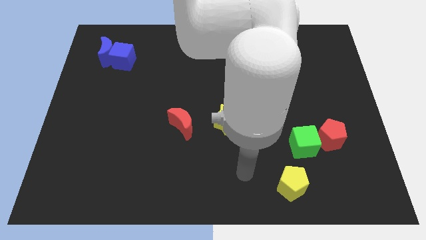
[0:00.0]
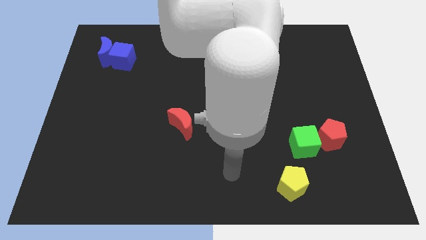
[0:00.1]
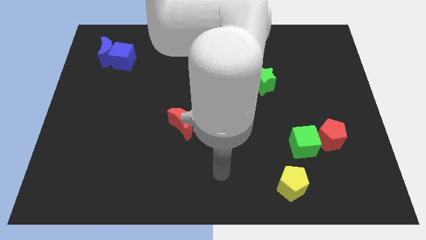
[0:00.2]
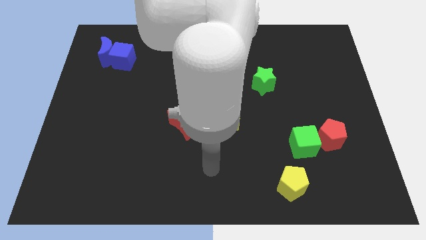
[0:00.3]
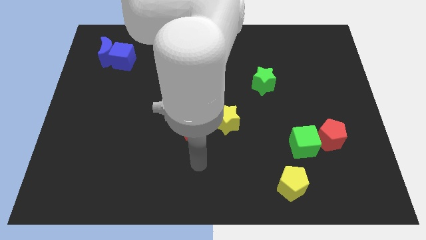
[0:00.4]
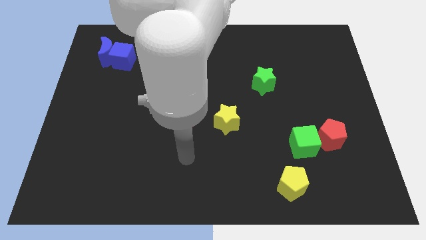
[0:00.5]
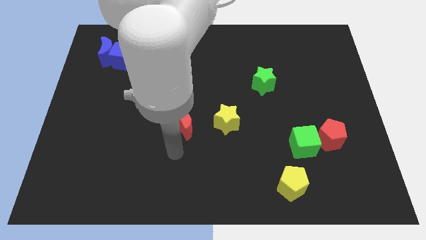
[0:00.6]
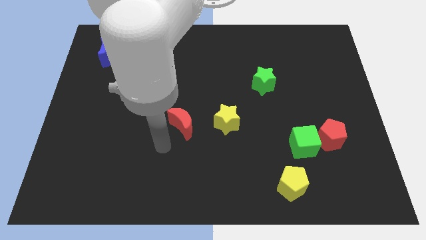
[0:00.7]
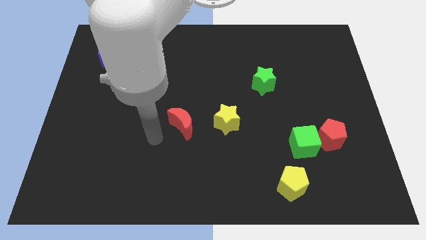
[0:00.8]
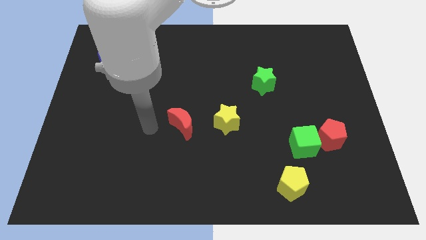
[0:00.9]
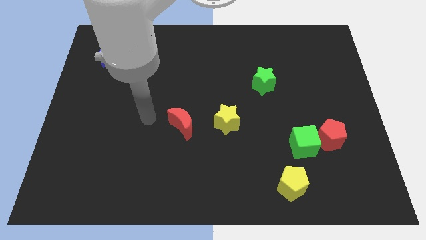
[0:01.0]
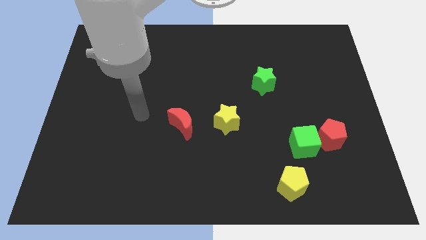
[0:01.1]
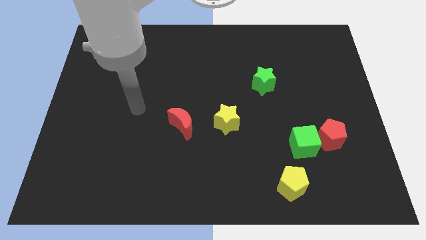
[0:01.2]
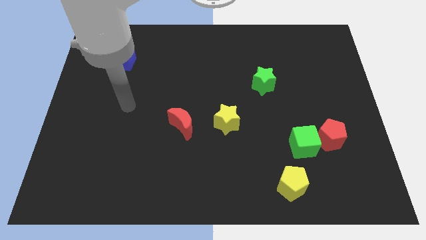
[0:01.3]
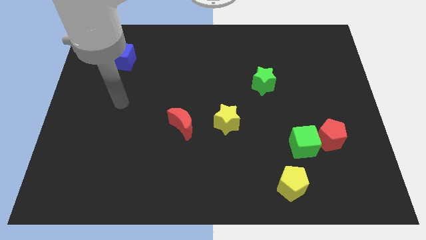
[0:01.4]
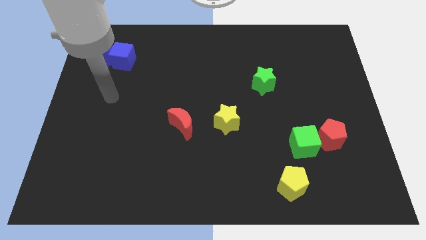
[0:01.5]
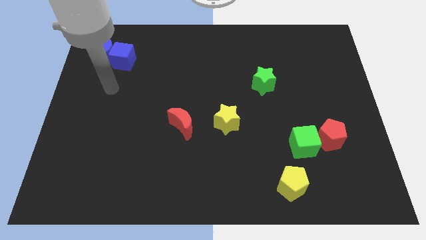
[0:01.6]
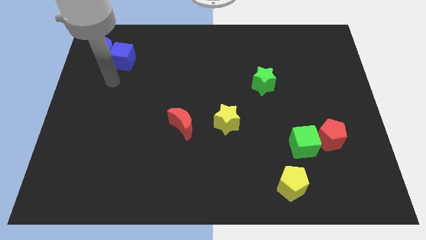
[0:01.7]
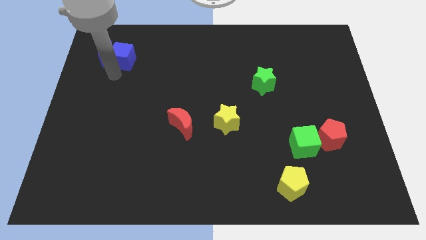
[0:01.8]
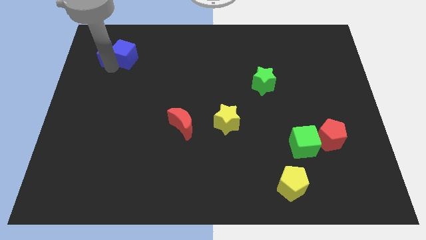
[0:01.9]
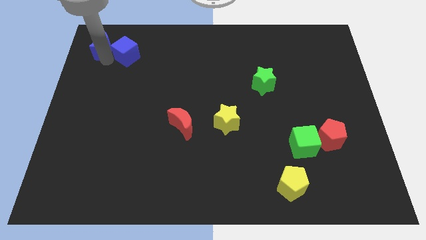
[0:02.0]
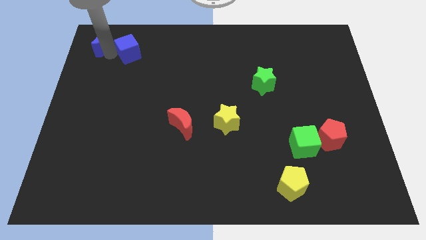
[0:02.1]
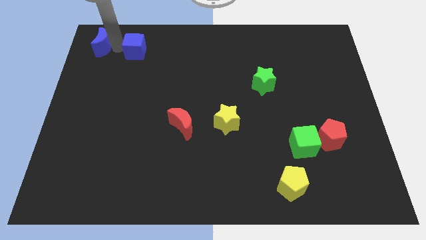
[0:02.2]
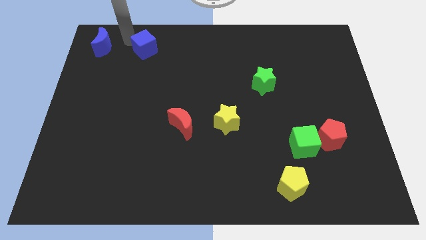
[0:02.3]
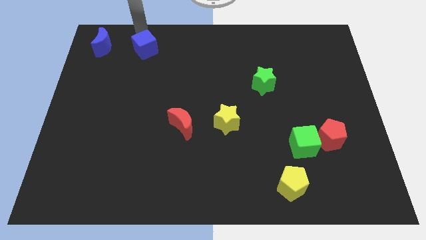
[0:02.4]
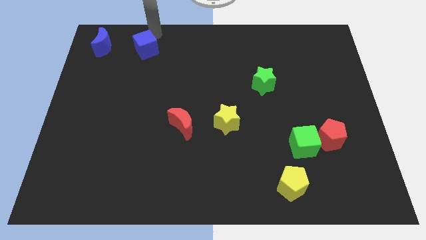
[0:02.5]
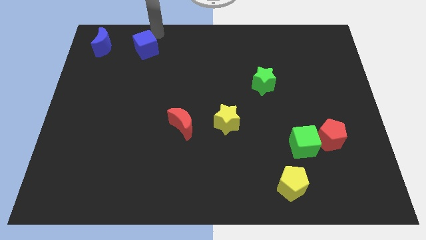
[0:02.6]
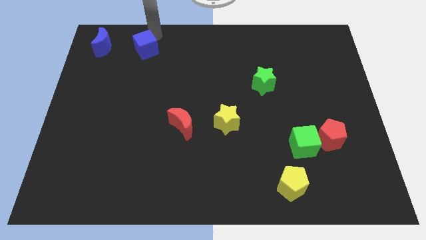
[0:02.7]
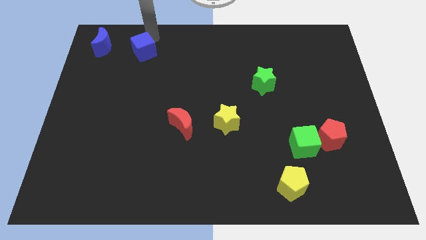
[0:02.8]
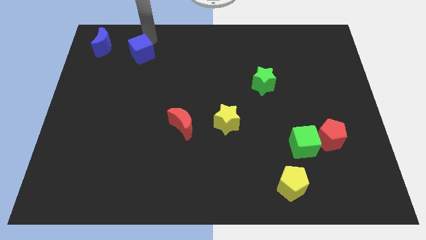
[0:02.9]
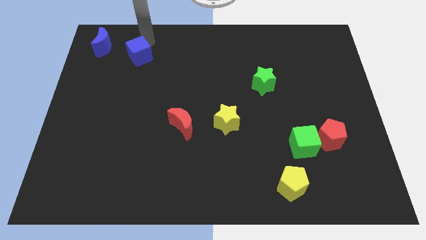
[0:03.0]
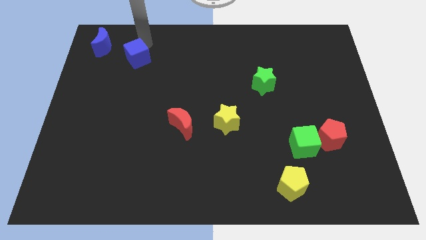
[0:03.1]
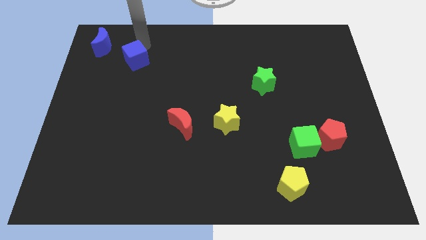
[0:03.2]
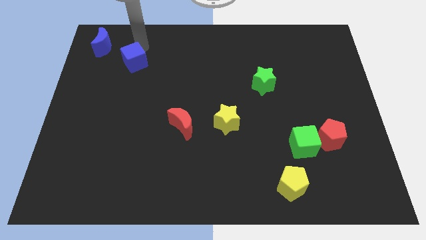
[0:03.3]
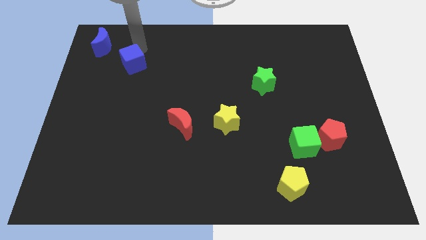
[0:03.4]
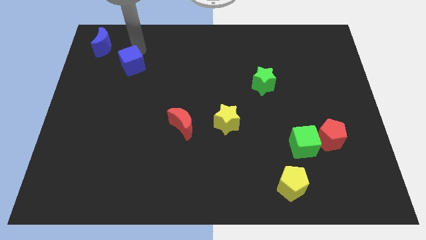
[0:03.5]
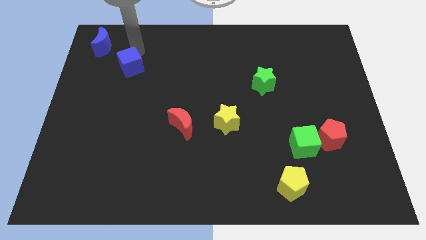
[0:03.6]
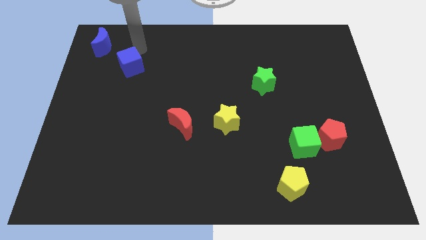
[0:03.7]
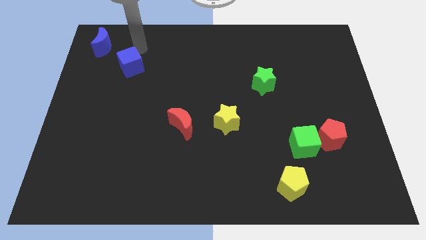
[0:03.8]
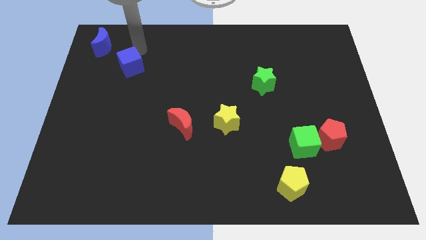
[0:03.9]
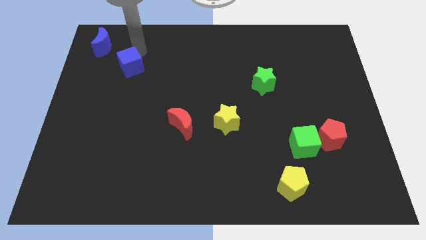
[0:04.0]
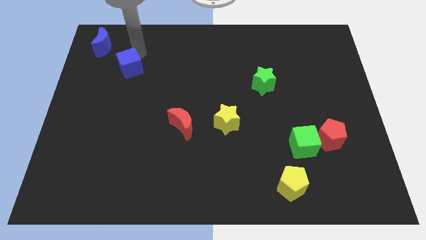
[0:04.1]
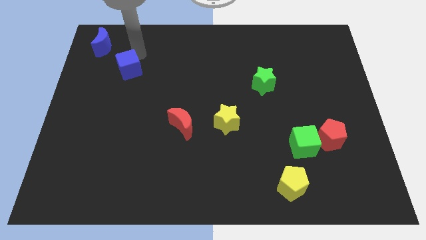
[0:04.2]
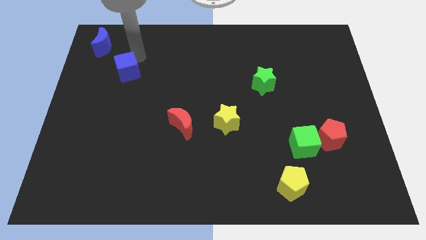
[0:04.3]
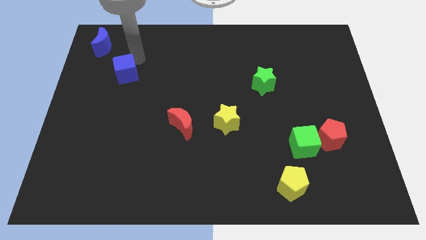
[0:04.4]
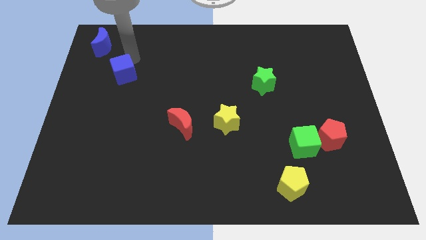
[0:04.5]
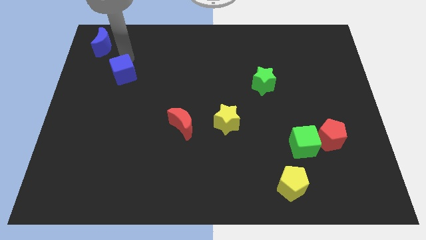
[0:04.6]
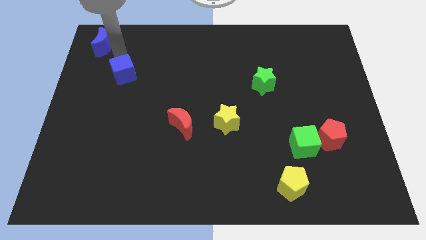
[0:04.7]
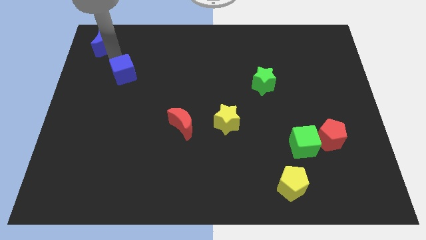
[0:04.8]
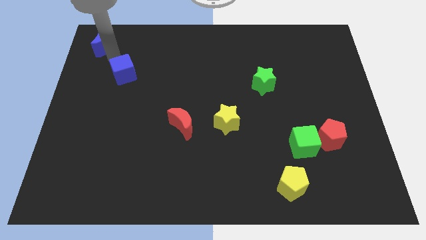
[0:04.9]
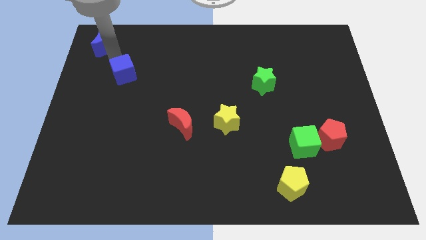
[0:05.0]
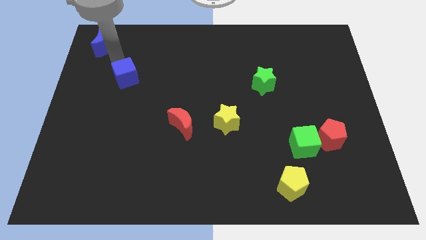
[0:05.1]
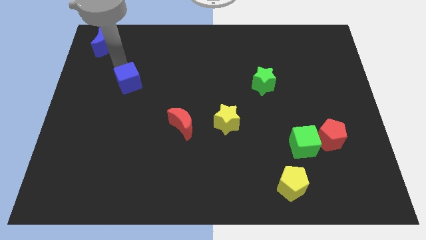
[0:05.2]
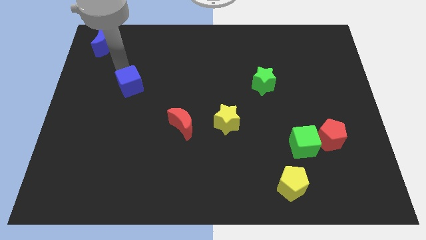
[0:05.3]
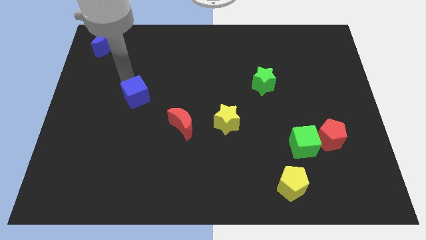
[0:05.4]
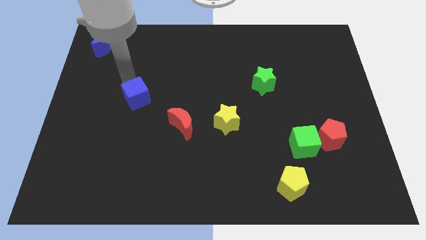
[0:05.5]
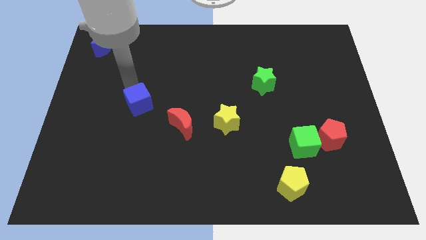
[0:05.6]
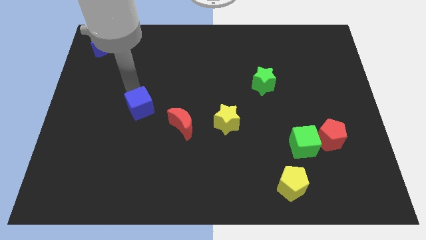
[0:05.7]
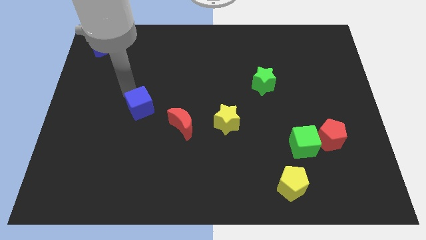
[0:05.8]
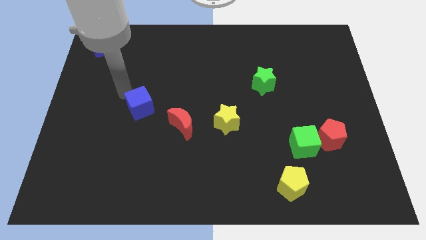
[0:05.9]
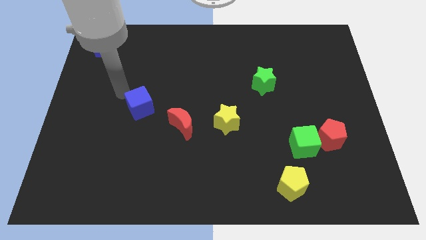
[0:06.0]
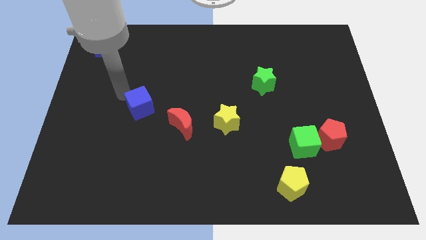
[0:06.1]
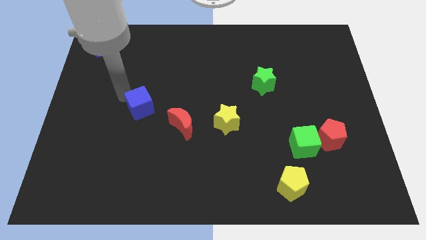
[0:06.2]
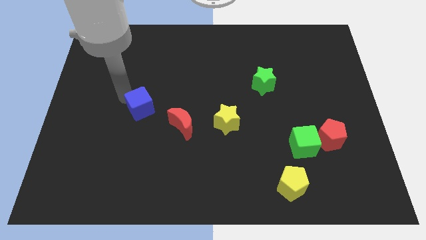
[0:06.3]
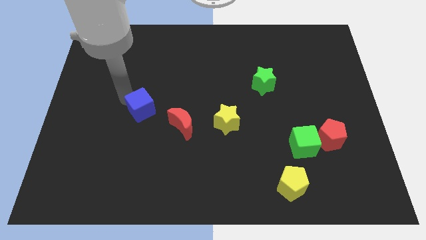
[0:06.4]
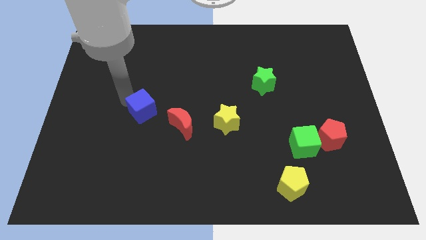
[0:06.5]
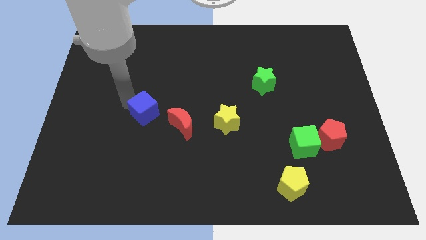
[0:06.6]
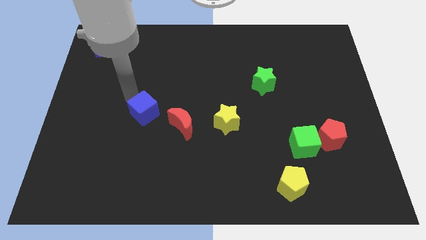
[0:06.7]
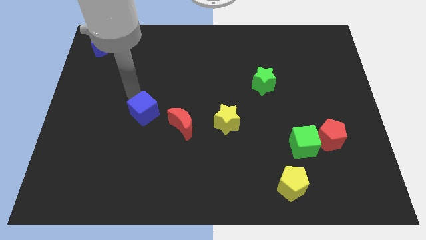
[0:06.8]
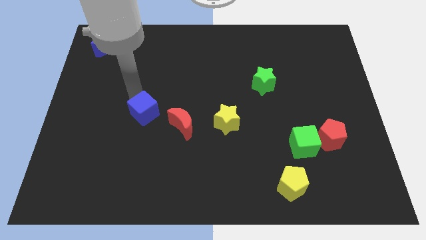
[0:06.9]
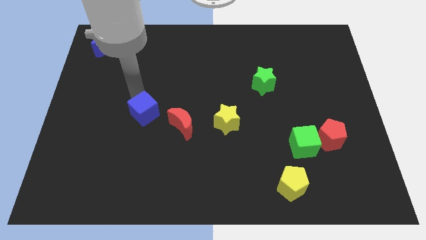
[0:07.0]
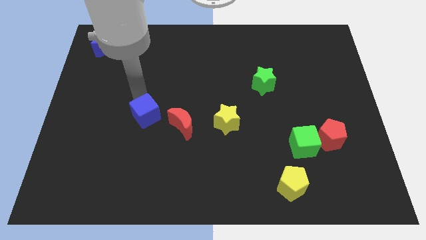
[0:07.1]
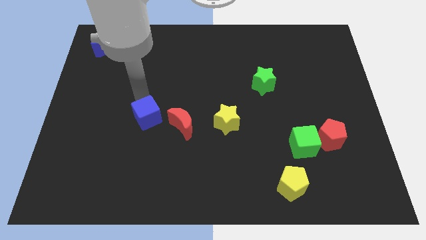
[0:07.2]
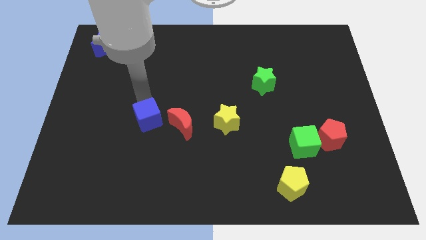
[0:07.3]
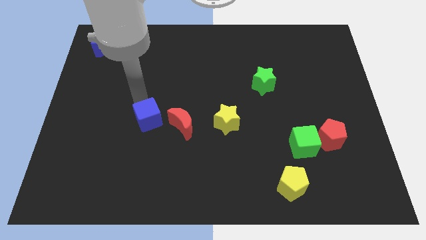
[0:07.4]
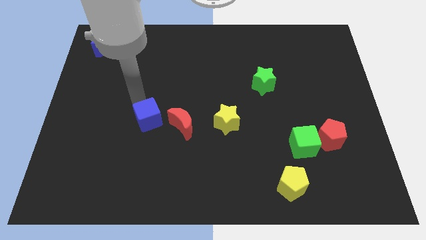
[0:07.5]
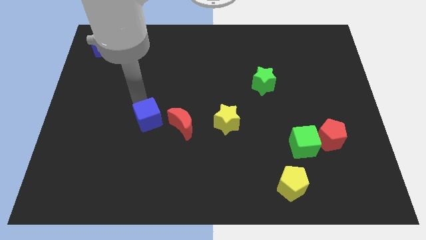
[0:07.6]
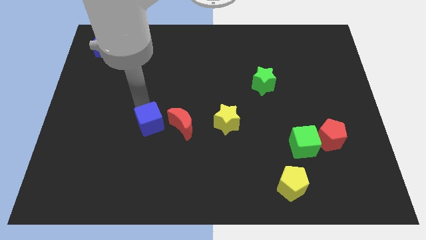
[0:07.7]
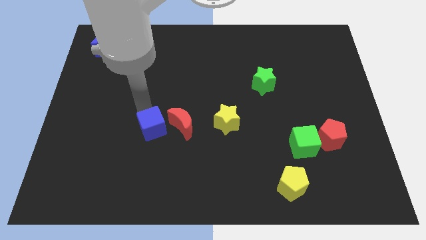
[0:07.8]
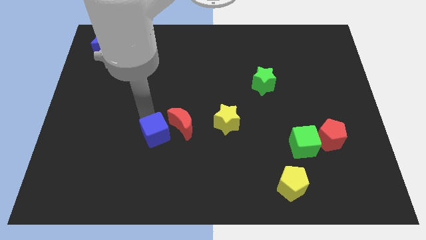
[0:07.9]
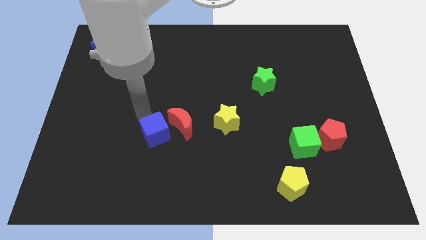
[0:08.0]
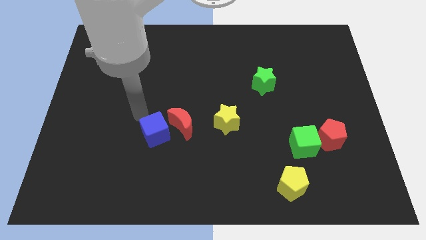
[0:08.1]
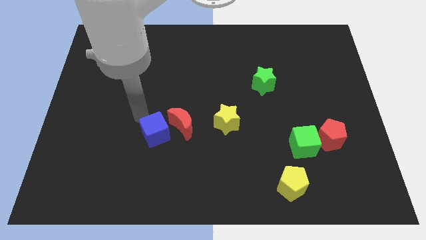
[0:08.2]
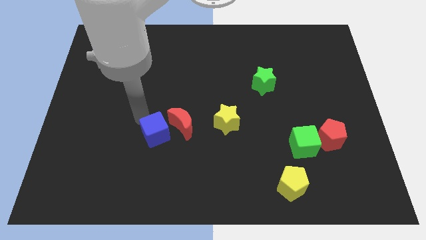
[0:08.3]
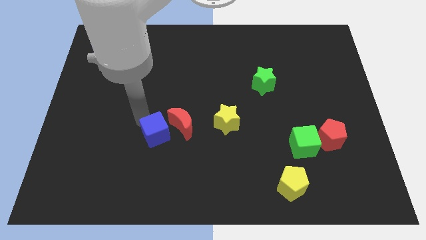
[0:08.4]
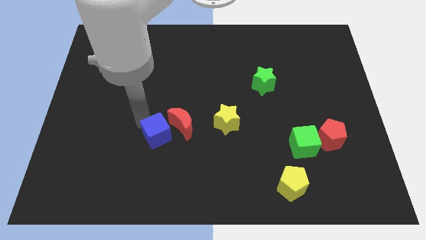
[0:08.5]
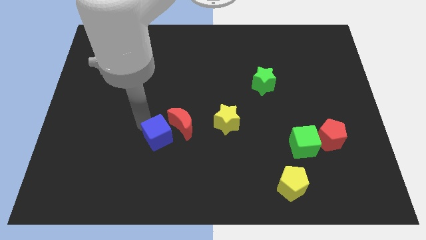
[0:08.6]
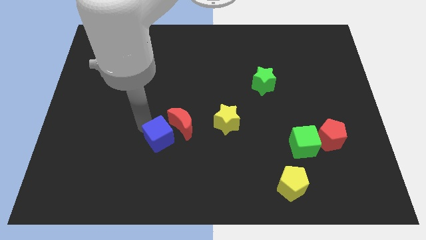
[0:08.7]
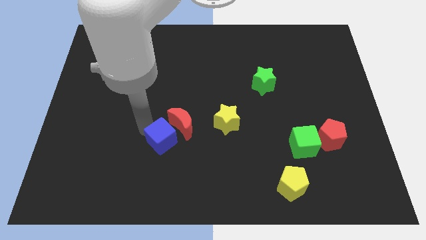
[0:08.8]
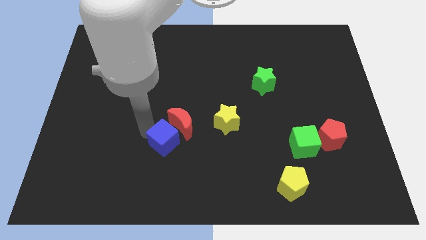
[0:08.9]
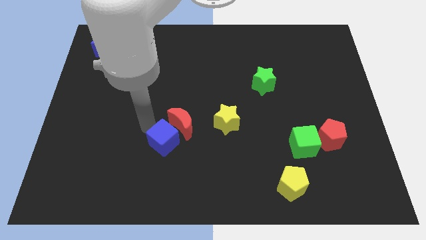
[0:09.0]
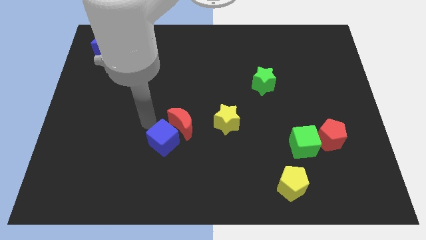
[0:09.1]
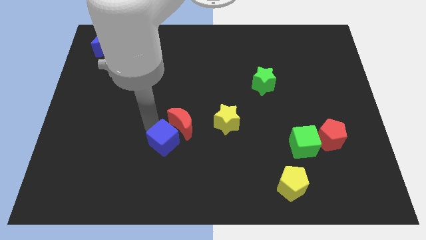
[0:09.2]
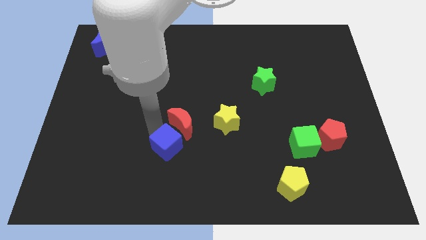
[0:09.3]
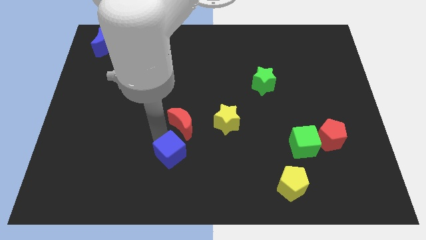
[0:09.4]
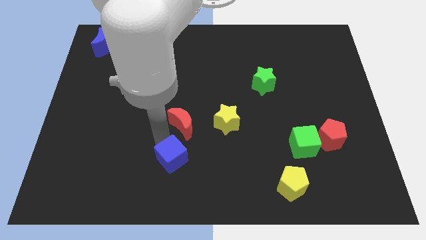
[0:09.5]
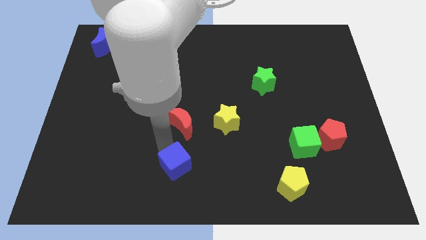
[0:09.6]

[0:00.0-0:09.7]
slide the blue cube to the bottom side
